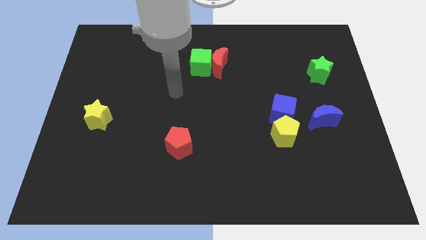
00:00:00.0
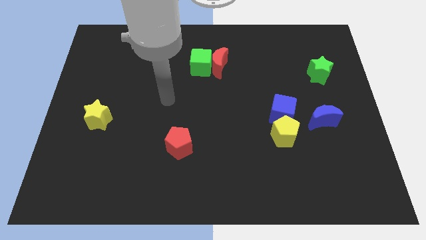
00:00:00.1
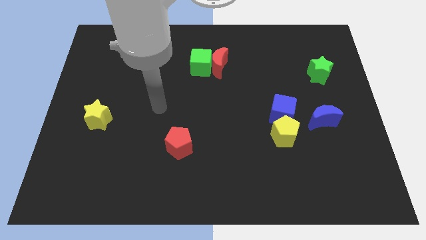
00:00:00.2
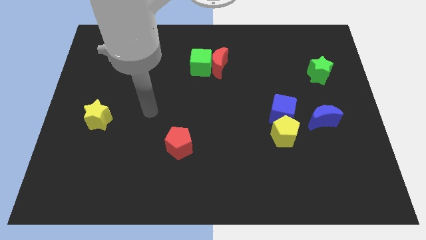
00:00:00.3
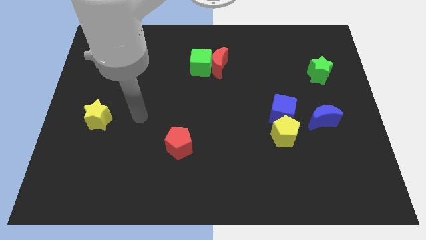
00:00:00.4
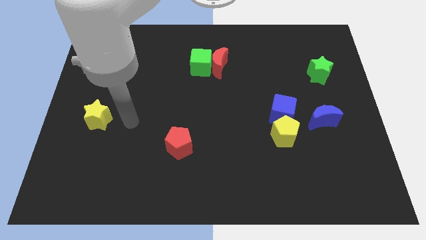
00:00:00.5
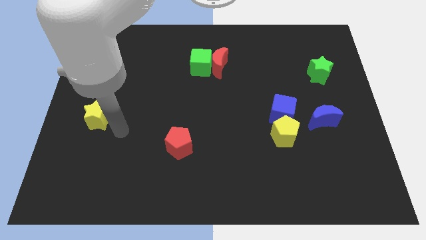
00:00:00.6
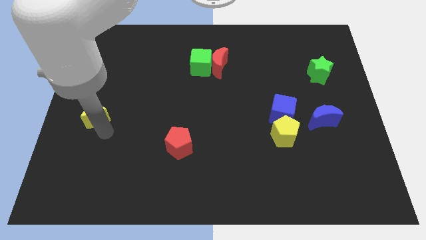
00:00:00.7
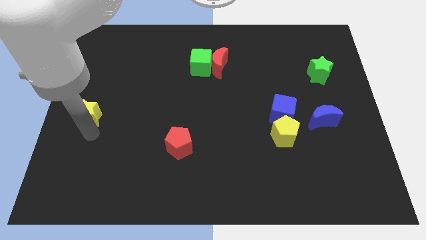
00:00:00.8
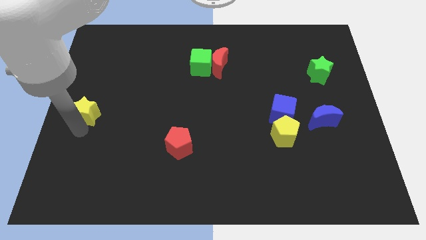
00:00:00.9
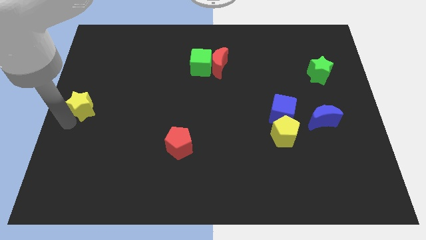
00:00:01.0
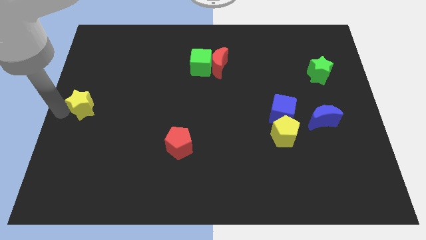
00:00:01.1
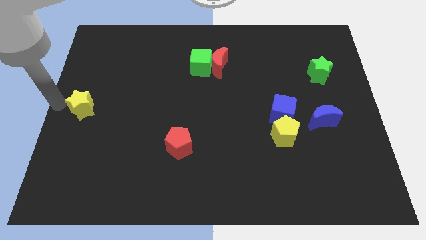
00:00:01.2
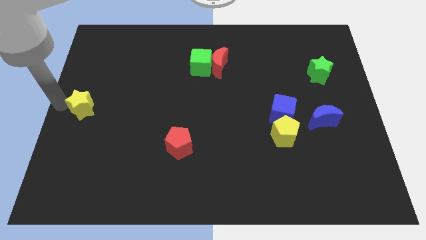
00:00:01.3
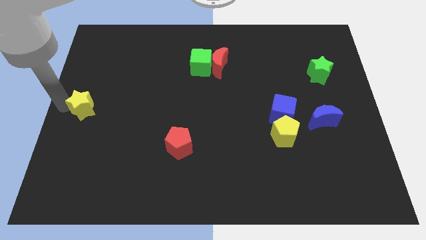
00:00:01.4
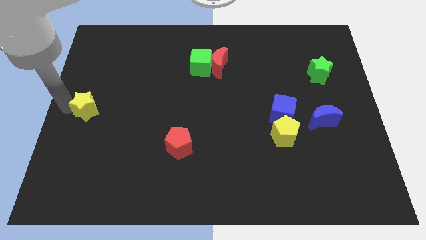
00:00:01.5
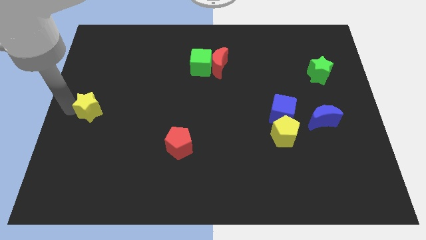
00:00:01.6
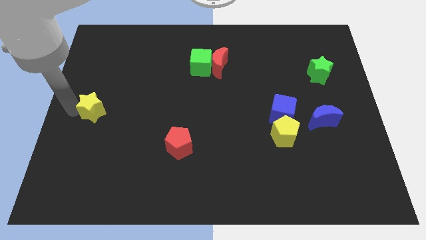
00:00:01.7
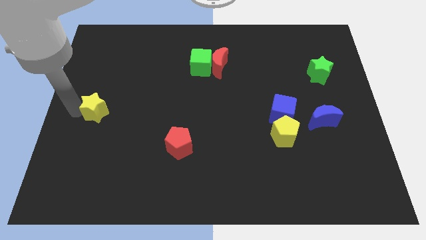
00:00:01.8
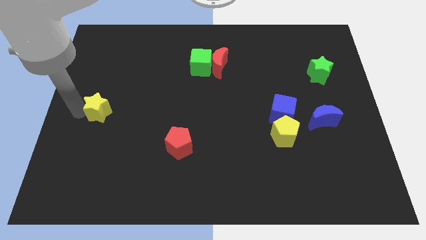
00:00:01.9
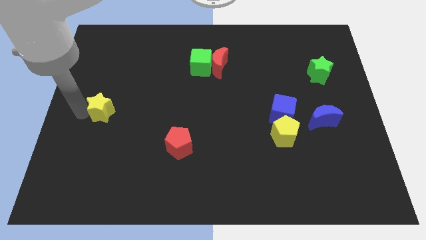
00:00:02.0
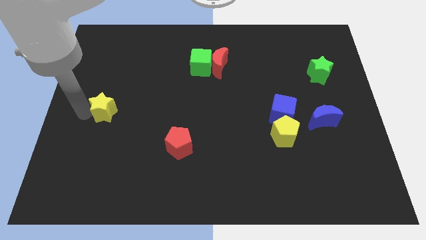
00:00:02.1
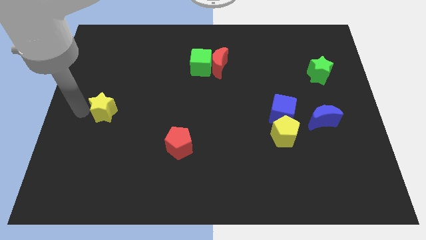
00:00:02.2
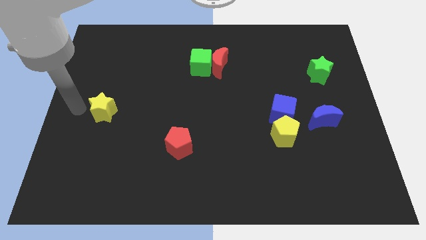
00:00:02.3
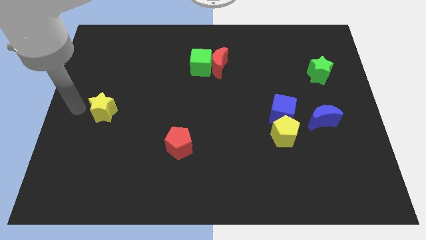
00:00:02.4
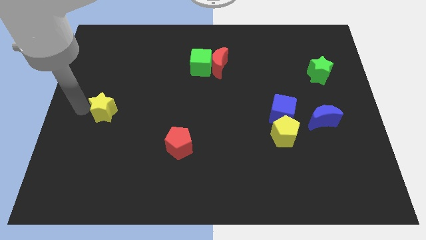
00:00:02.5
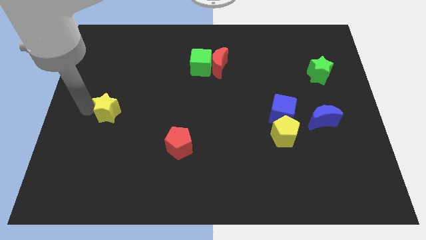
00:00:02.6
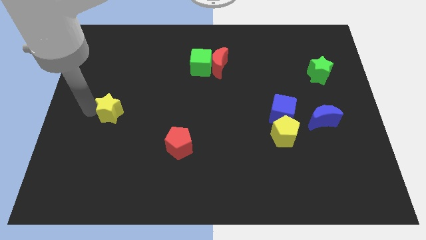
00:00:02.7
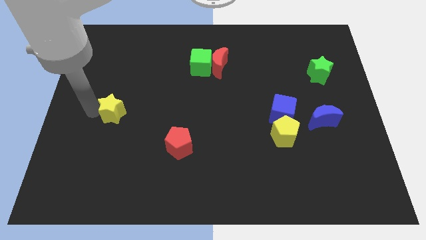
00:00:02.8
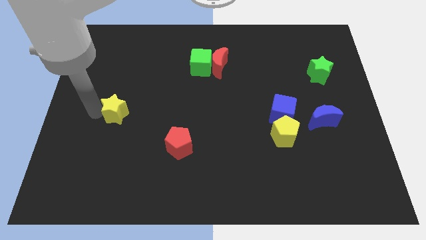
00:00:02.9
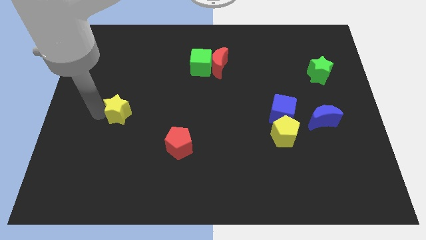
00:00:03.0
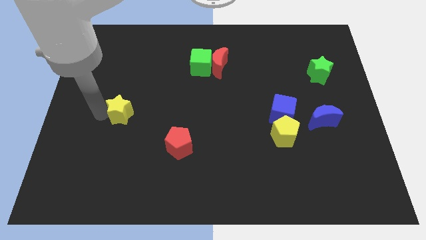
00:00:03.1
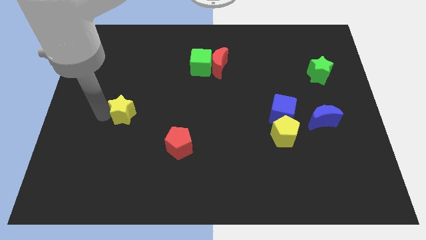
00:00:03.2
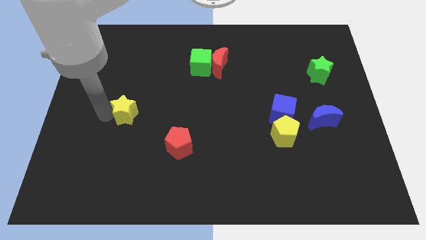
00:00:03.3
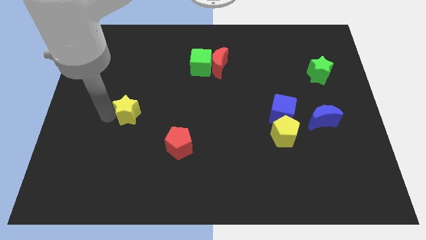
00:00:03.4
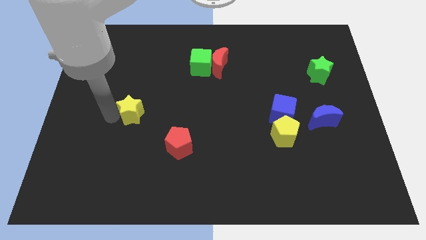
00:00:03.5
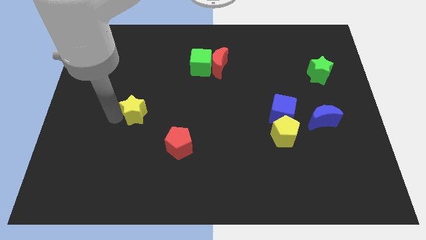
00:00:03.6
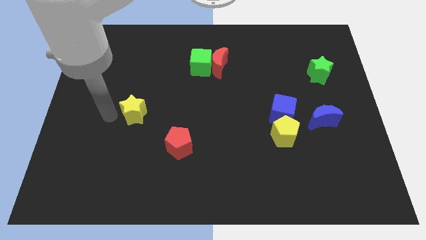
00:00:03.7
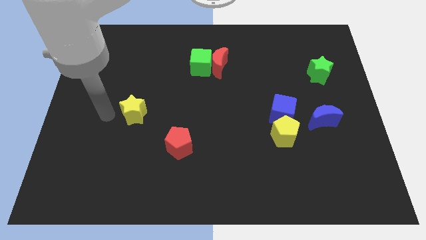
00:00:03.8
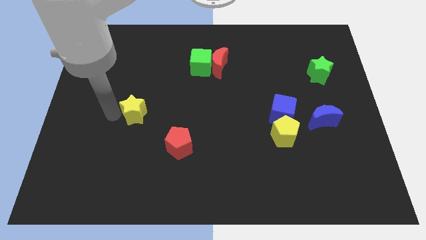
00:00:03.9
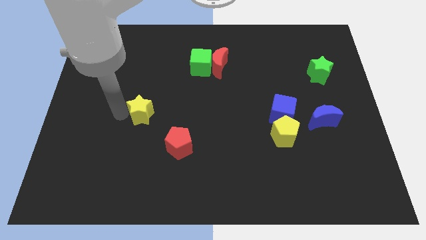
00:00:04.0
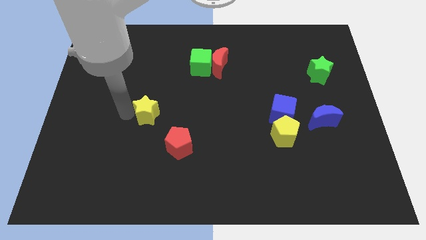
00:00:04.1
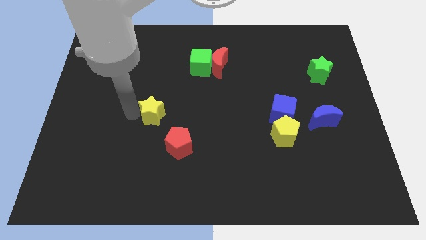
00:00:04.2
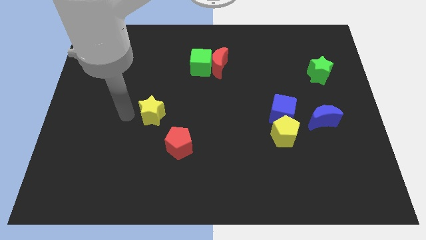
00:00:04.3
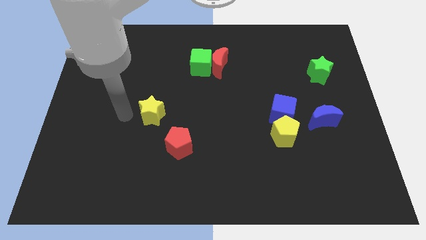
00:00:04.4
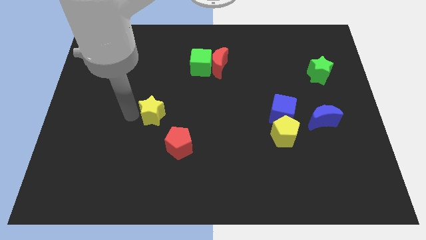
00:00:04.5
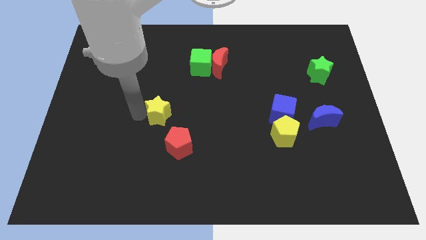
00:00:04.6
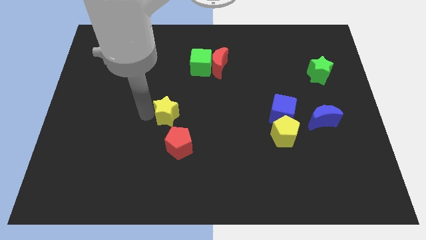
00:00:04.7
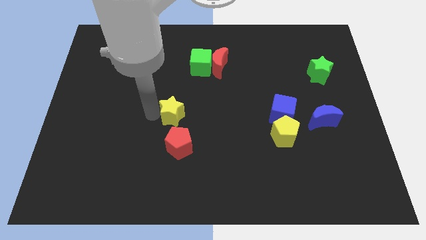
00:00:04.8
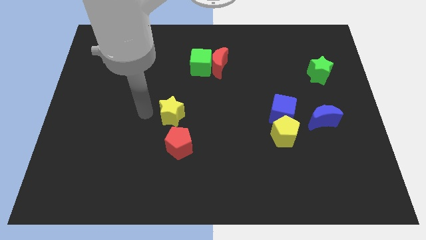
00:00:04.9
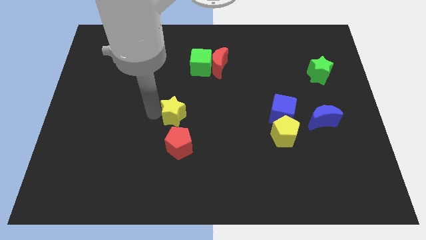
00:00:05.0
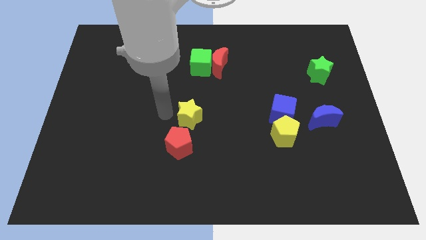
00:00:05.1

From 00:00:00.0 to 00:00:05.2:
push the yellow star right

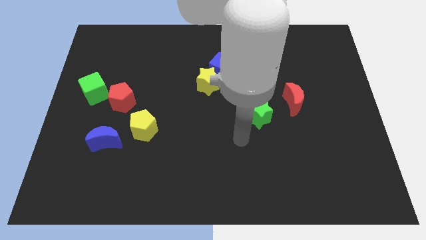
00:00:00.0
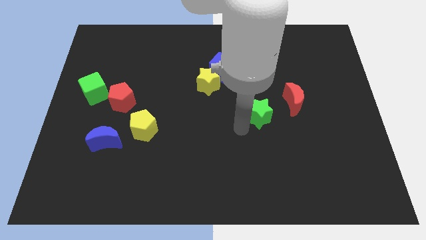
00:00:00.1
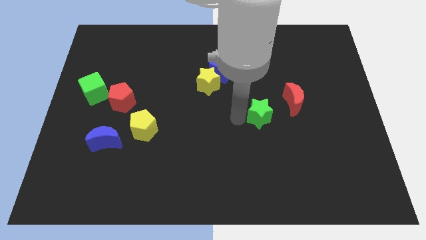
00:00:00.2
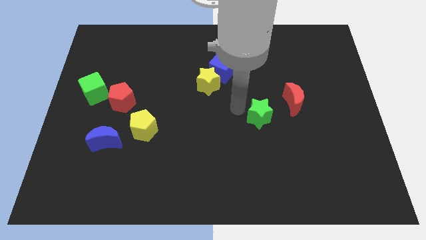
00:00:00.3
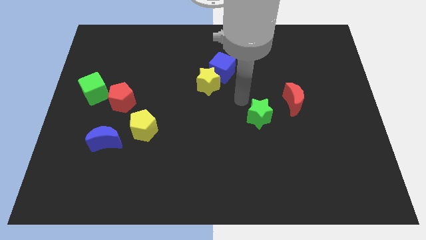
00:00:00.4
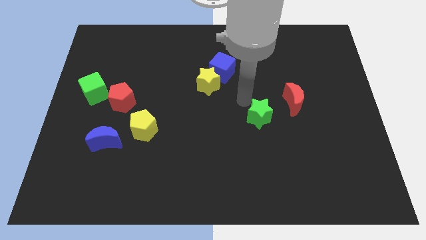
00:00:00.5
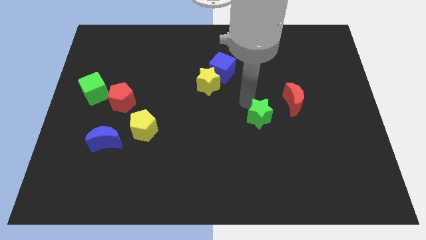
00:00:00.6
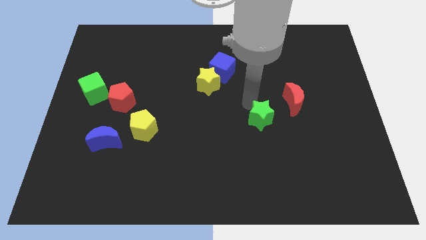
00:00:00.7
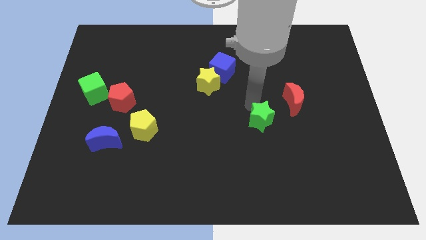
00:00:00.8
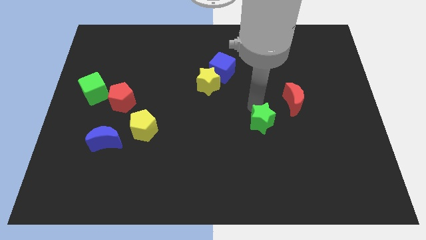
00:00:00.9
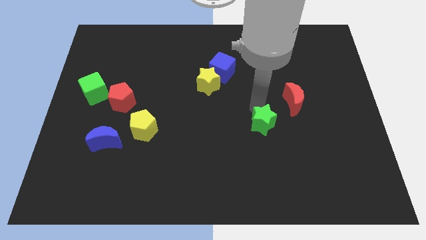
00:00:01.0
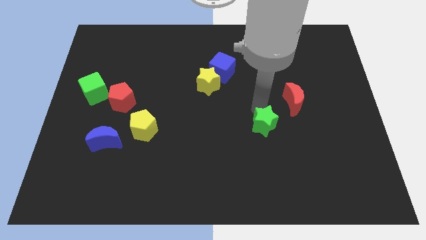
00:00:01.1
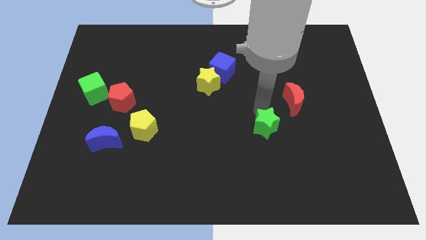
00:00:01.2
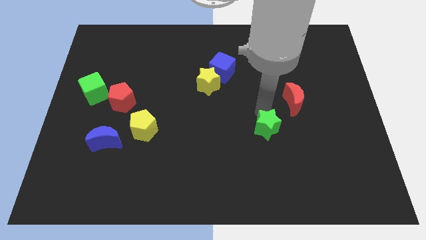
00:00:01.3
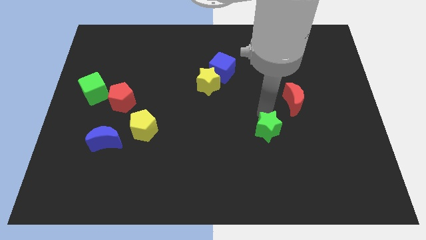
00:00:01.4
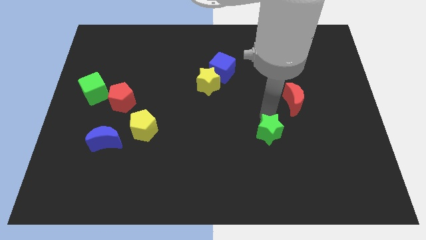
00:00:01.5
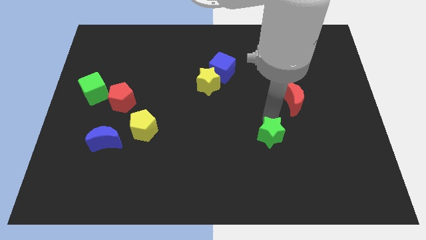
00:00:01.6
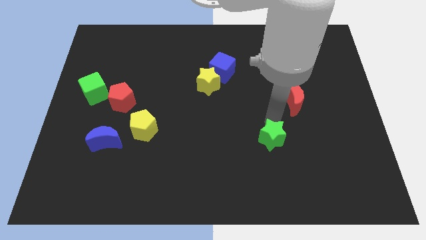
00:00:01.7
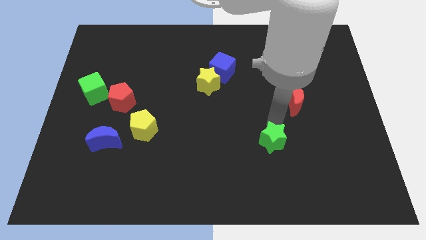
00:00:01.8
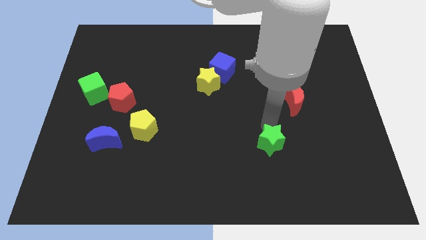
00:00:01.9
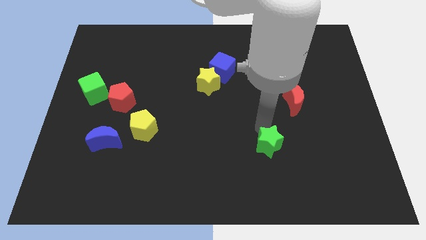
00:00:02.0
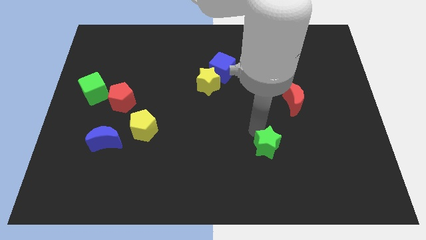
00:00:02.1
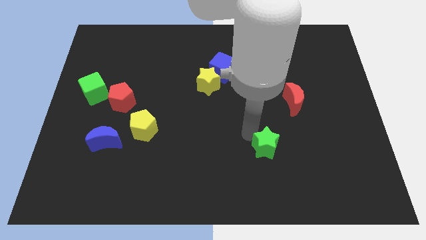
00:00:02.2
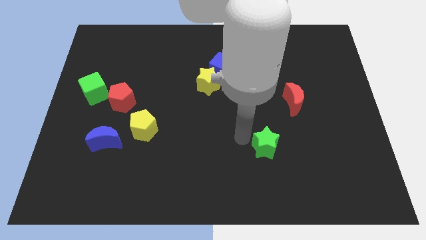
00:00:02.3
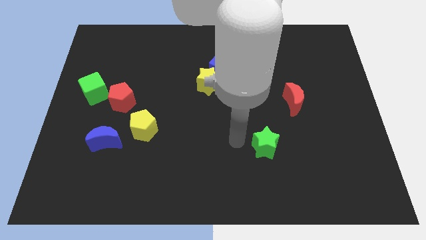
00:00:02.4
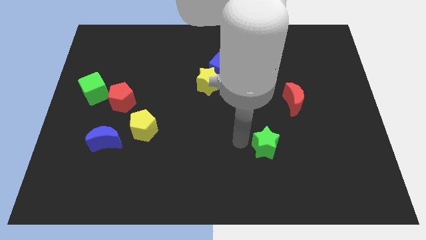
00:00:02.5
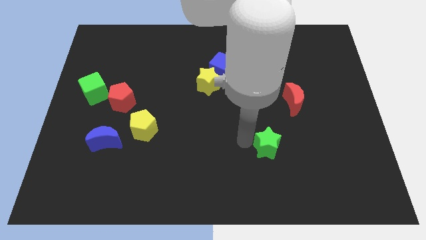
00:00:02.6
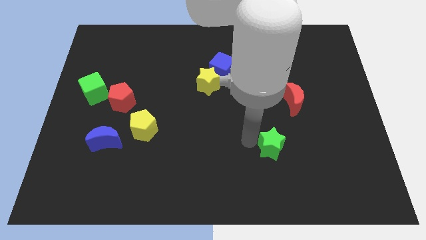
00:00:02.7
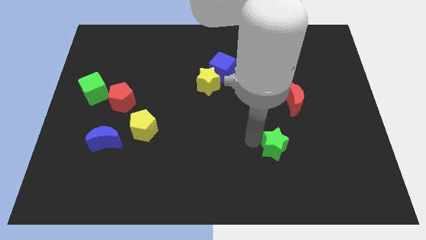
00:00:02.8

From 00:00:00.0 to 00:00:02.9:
slide the green star a little down and then to the right
